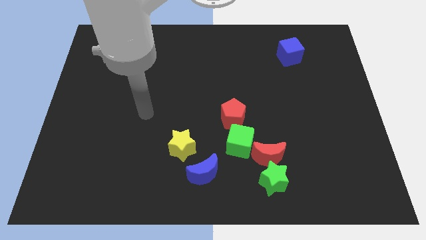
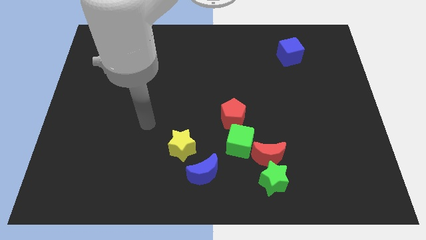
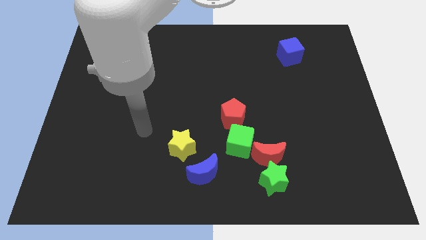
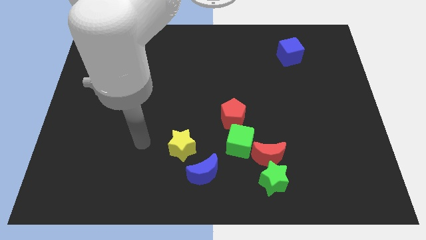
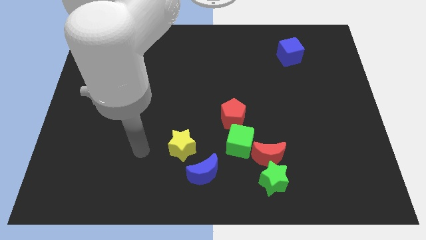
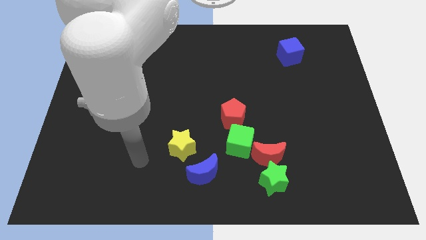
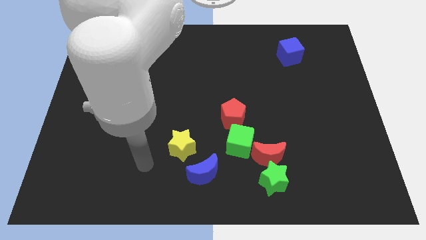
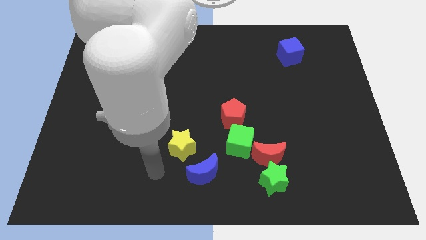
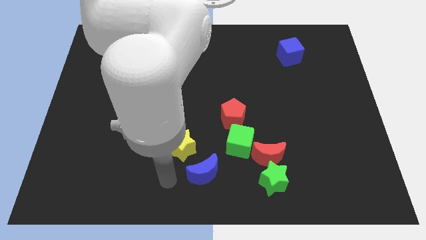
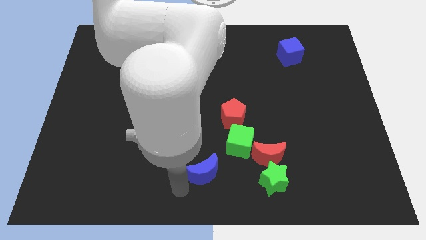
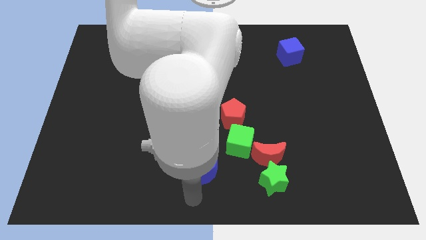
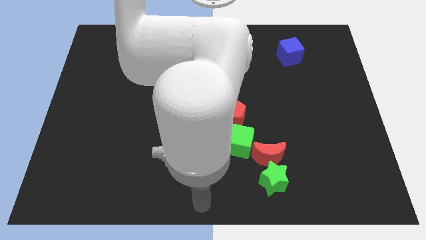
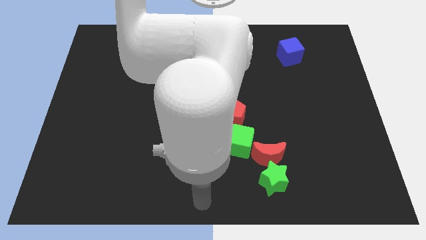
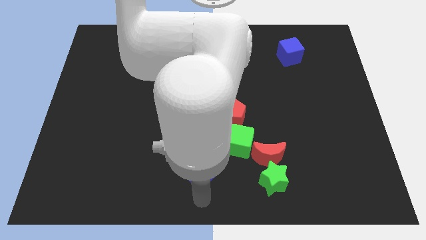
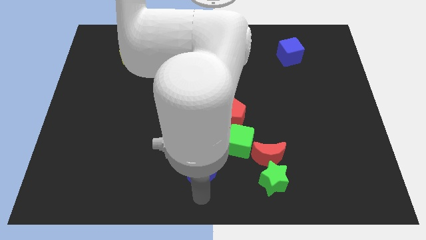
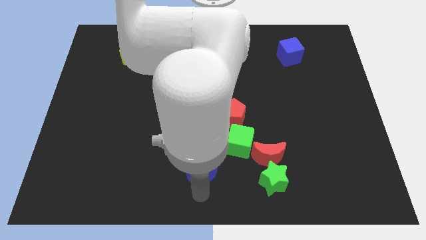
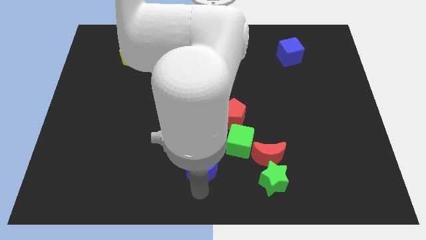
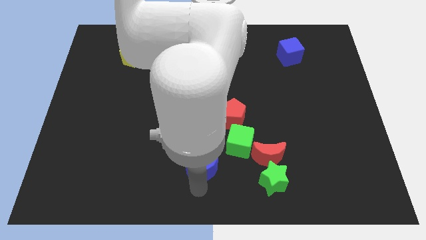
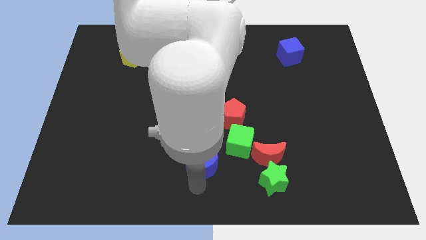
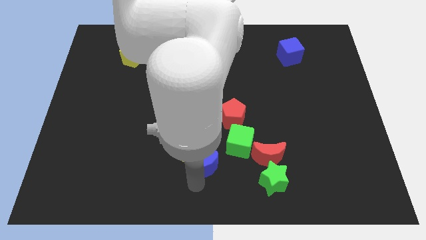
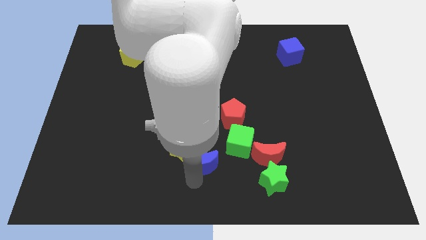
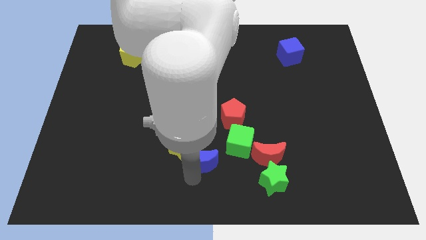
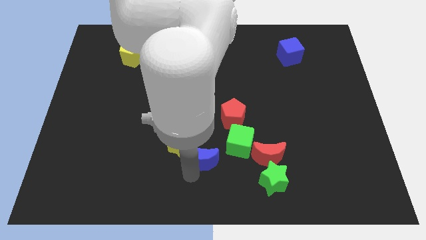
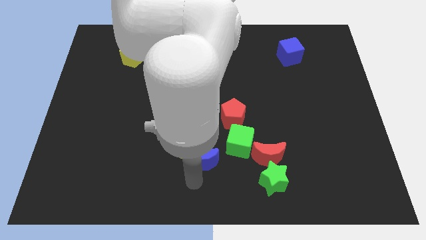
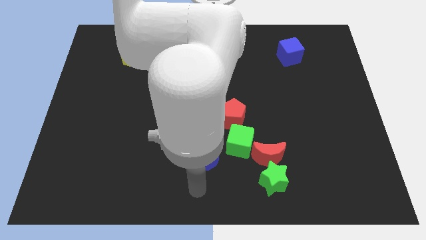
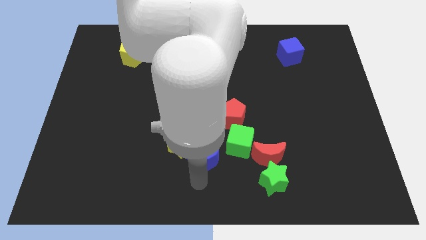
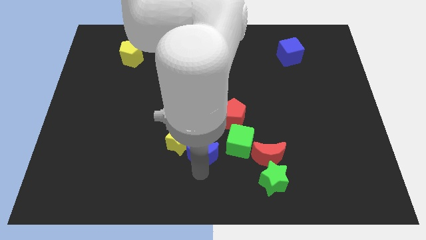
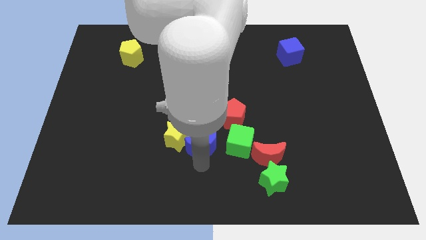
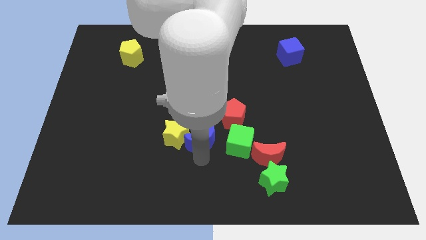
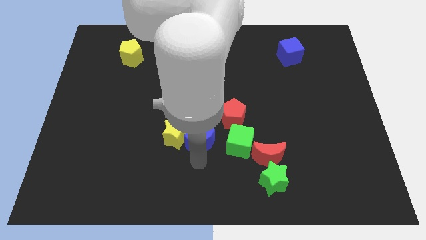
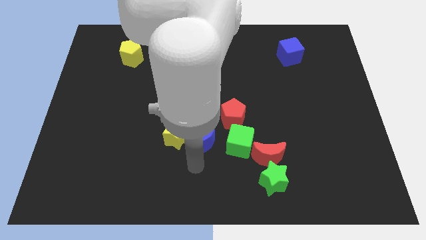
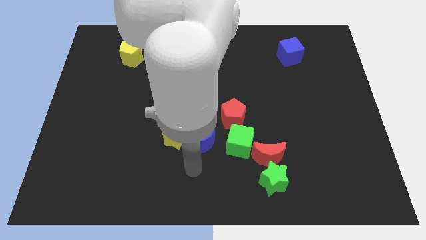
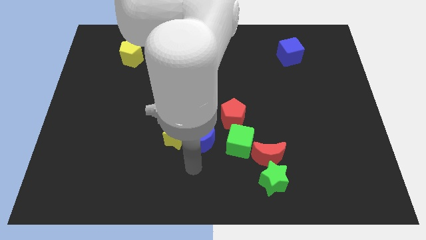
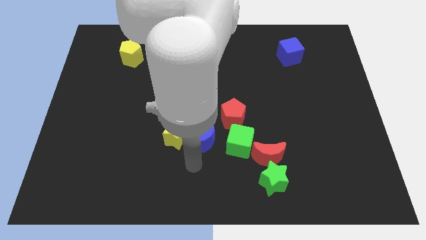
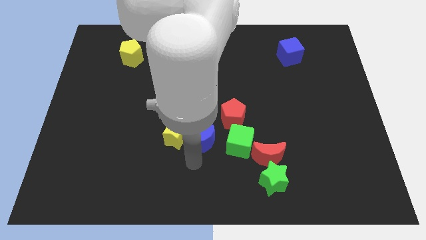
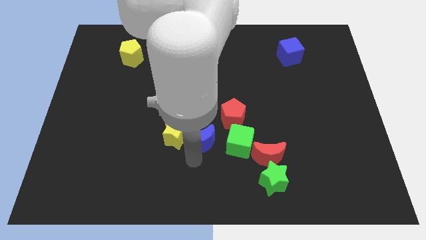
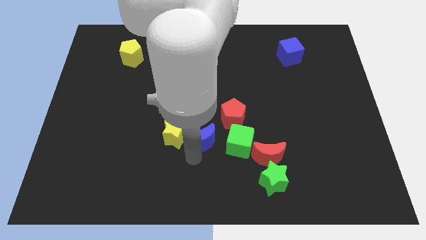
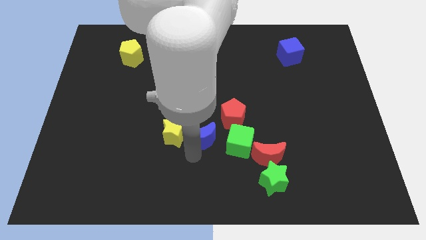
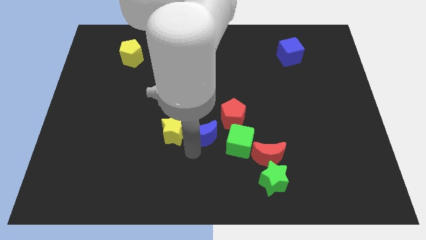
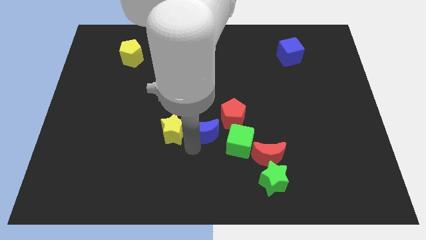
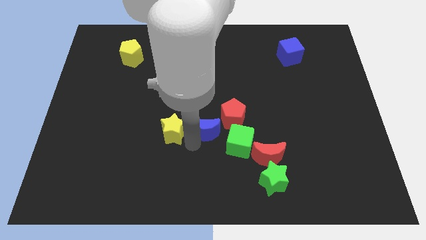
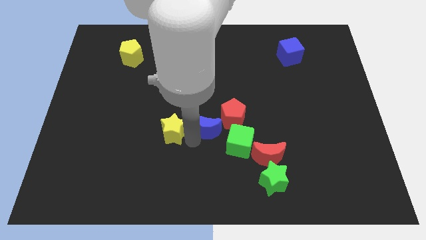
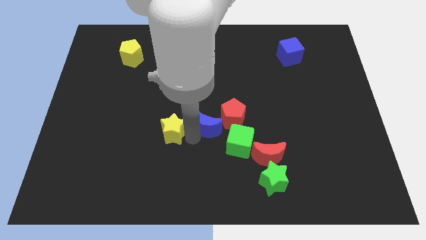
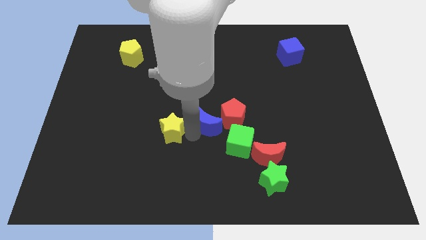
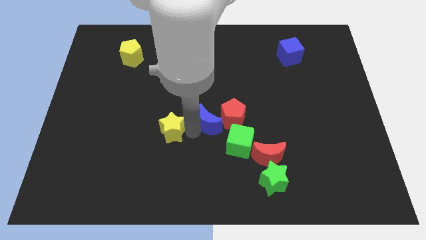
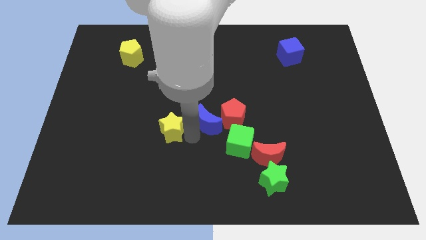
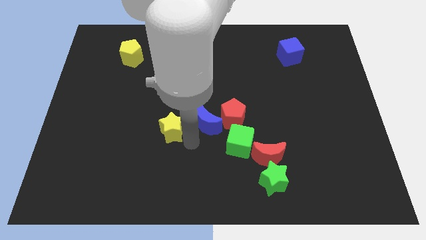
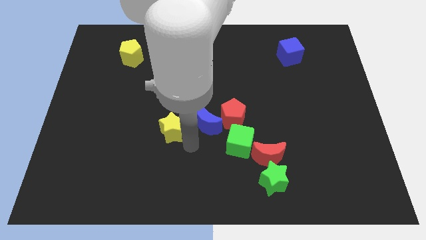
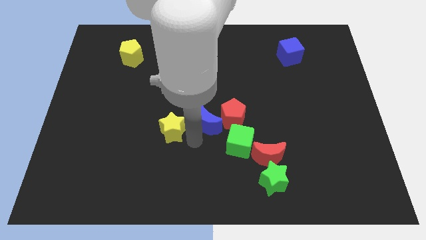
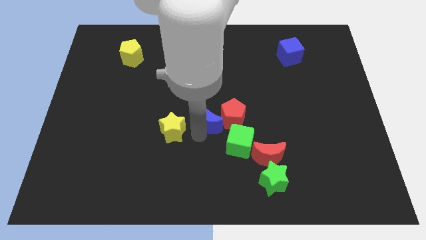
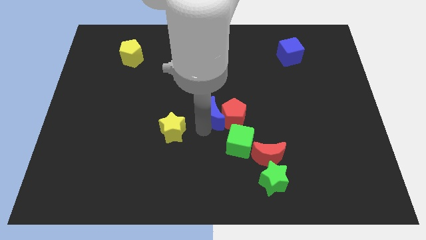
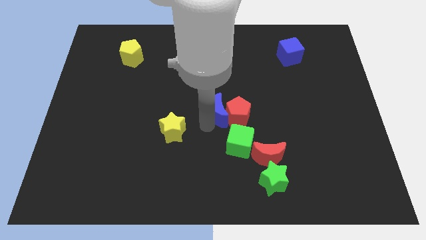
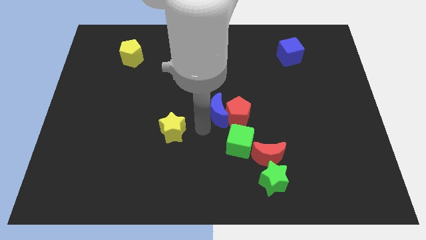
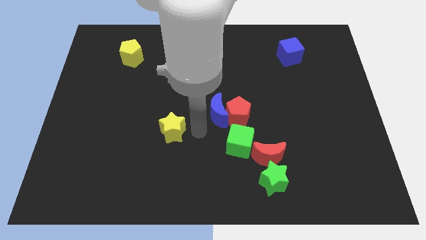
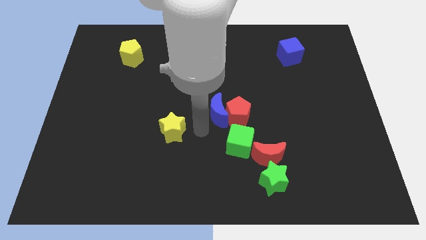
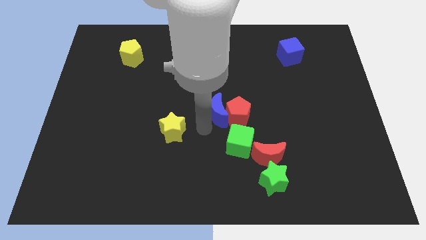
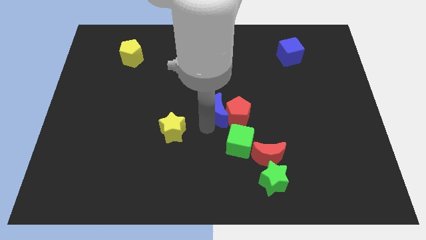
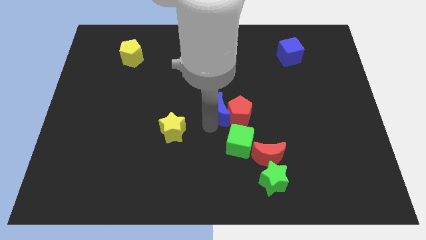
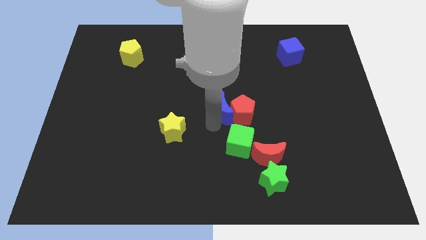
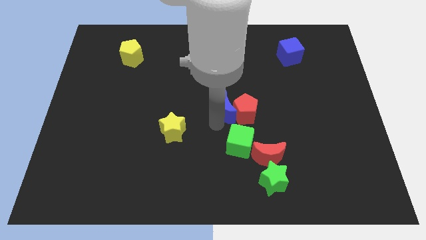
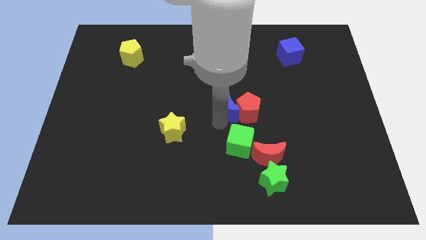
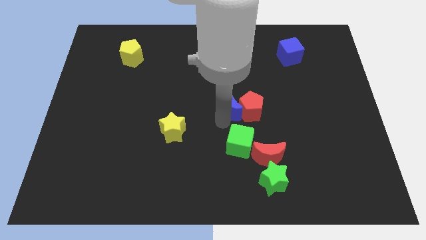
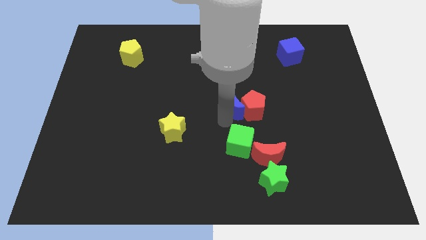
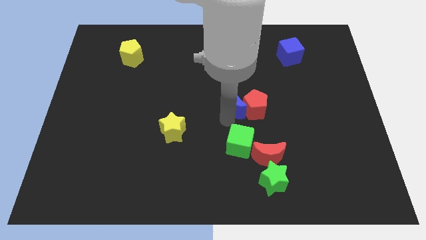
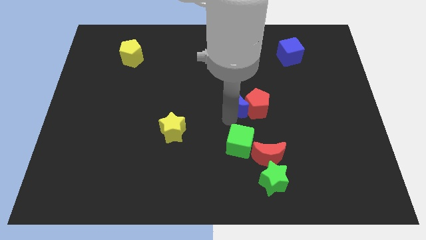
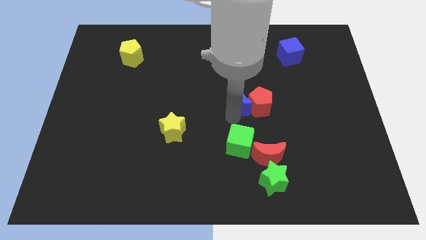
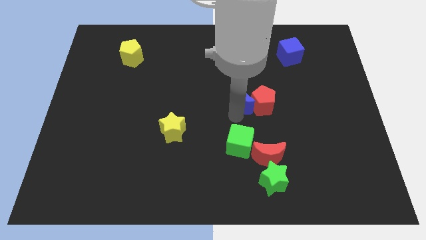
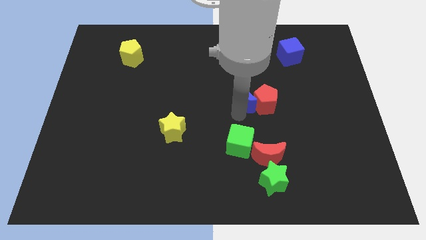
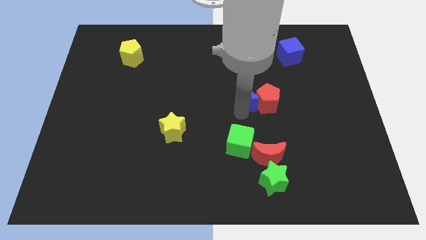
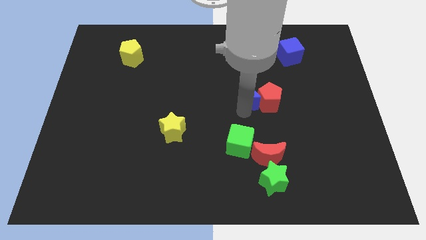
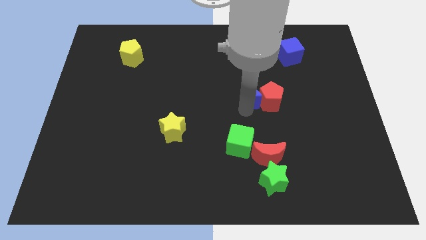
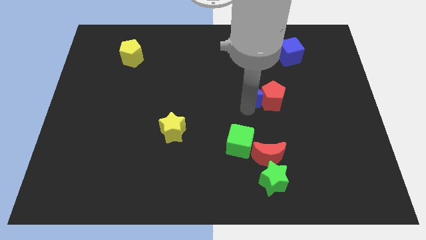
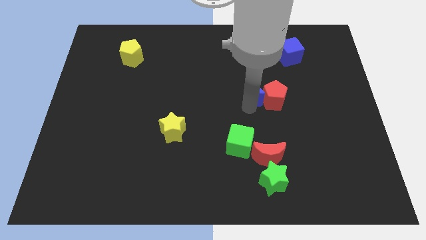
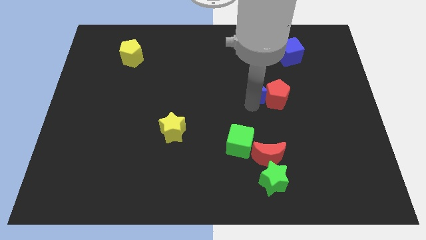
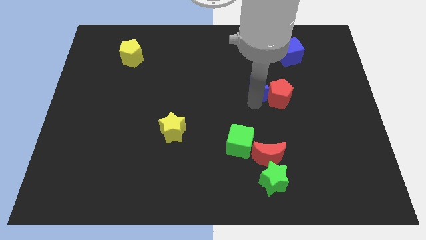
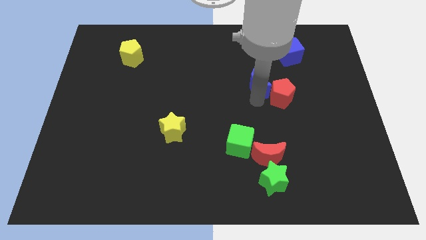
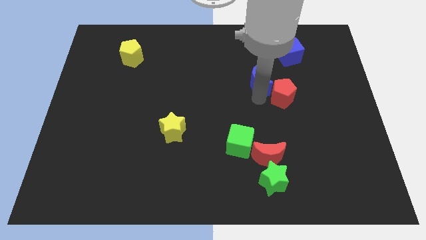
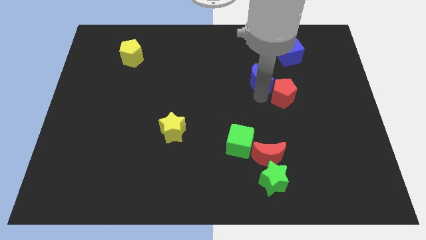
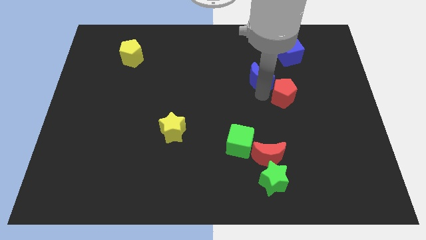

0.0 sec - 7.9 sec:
move the blue moon to the bottom left side of the blue cube
